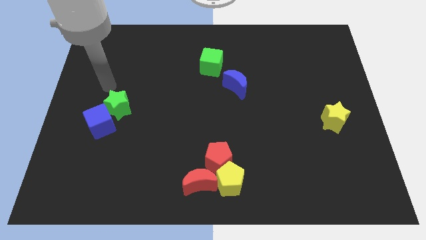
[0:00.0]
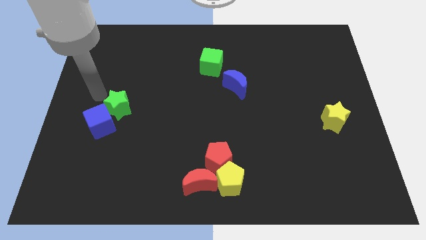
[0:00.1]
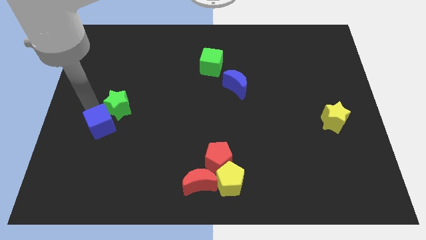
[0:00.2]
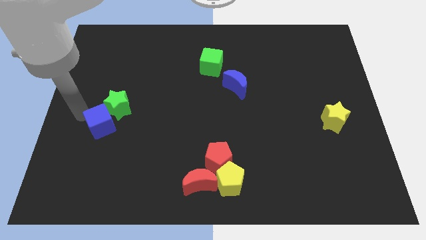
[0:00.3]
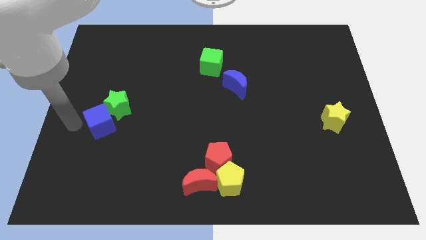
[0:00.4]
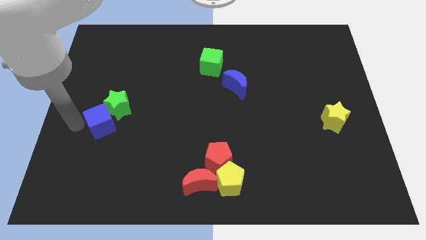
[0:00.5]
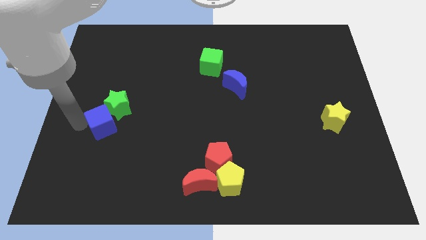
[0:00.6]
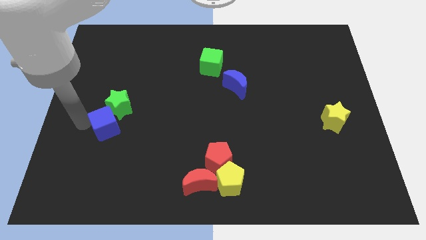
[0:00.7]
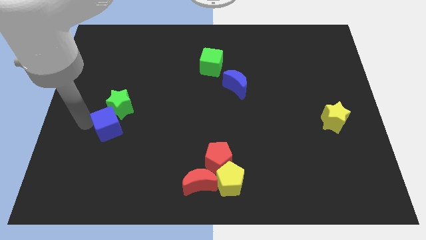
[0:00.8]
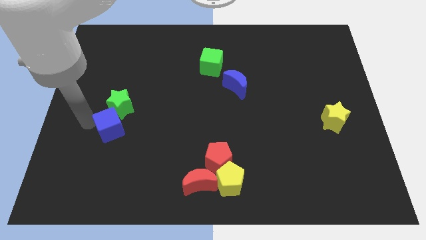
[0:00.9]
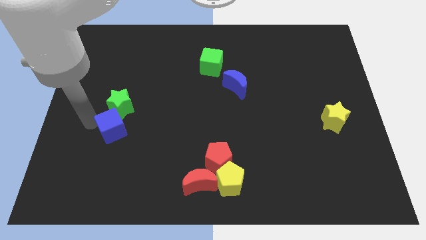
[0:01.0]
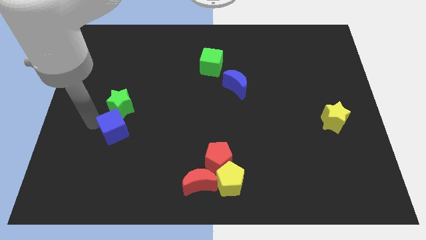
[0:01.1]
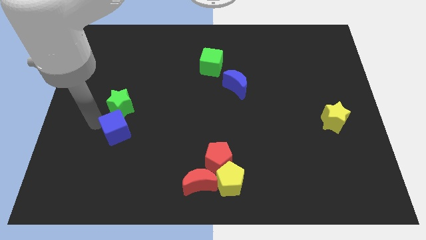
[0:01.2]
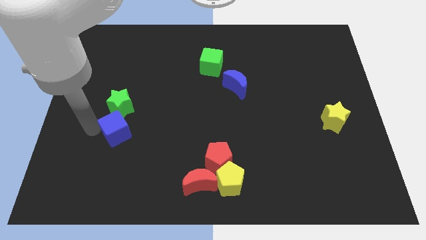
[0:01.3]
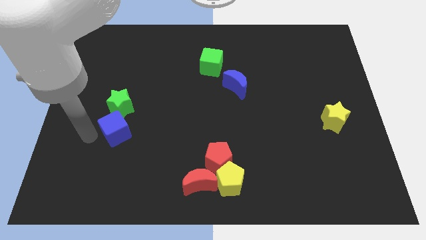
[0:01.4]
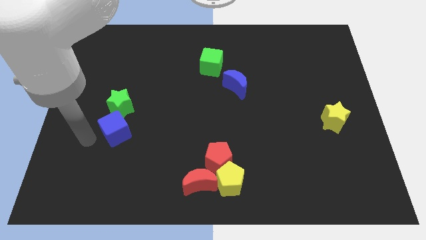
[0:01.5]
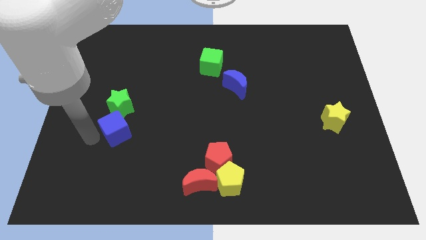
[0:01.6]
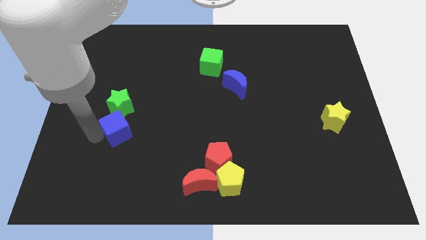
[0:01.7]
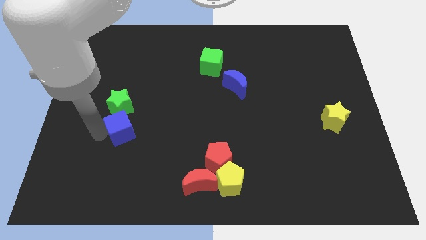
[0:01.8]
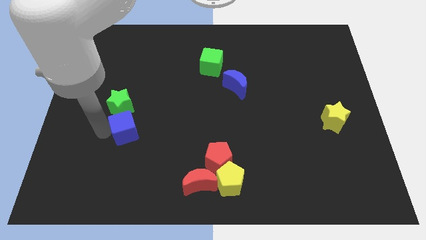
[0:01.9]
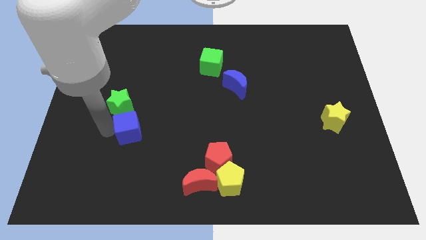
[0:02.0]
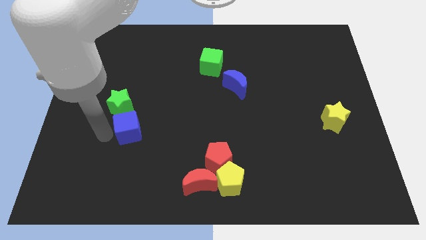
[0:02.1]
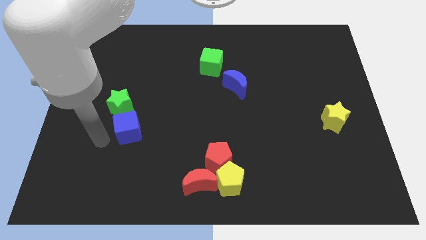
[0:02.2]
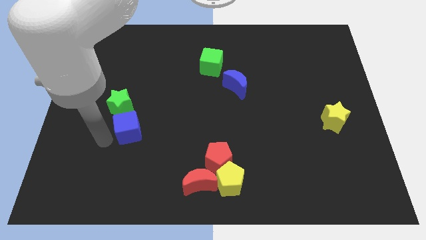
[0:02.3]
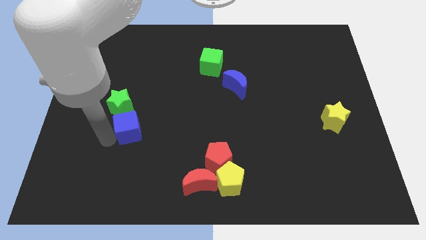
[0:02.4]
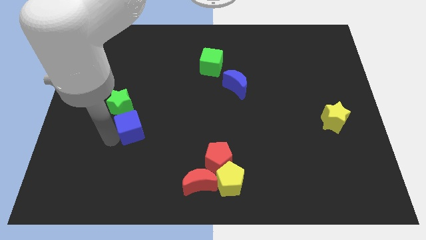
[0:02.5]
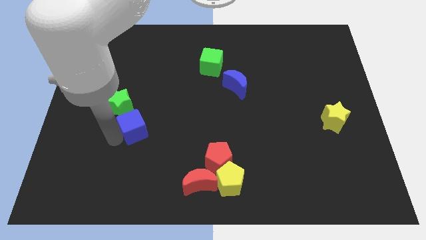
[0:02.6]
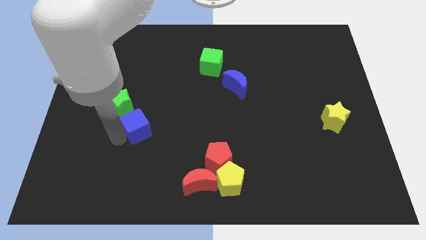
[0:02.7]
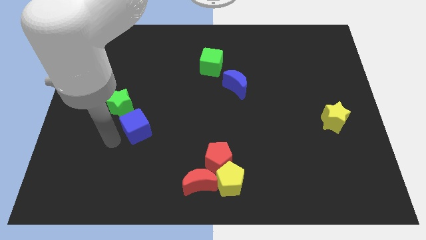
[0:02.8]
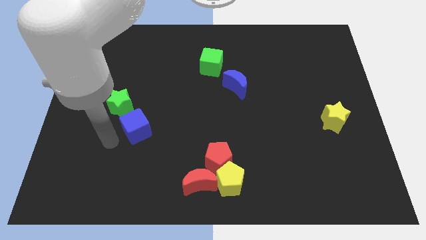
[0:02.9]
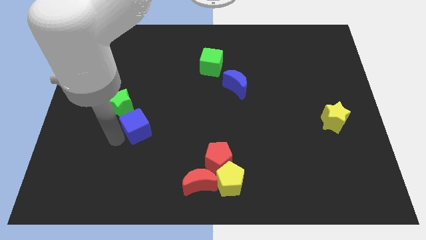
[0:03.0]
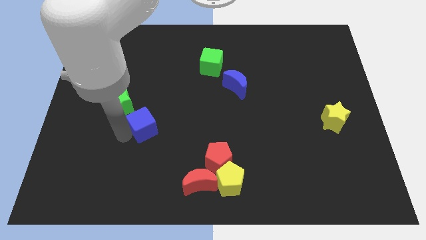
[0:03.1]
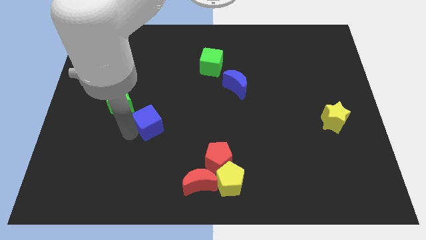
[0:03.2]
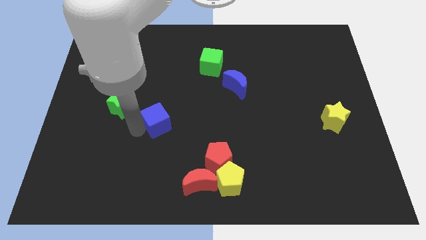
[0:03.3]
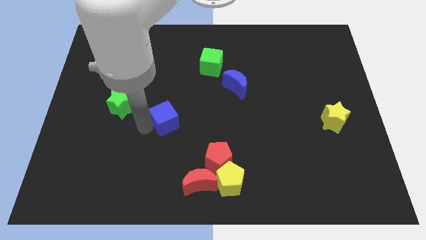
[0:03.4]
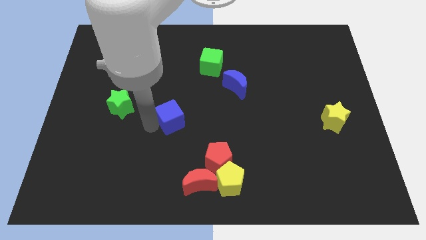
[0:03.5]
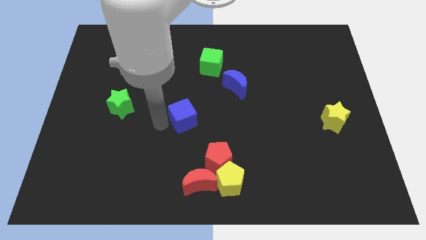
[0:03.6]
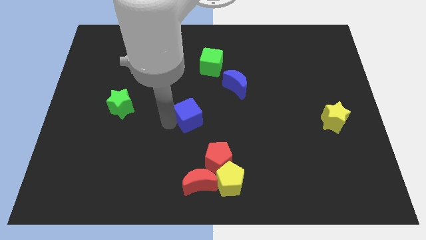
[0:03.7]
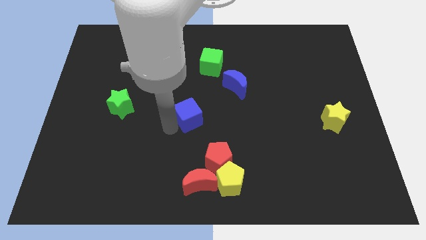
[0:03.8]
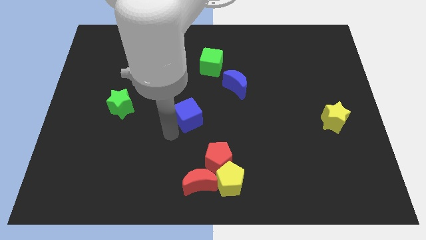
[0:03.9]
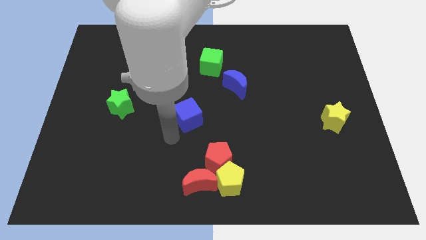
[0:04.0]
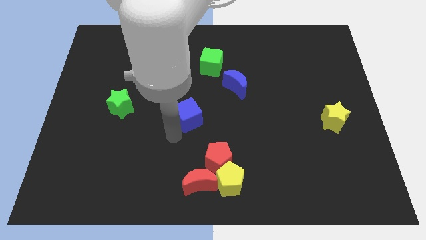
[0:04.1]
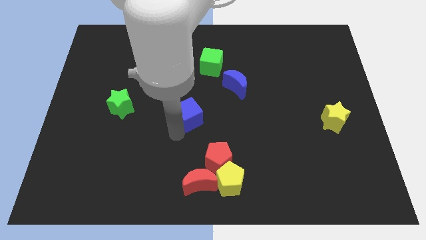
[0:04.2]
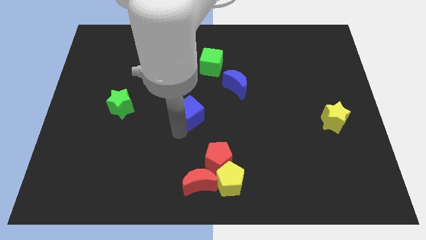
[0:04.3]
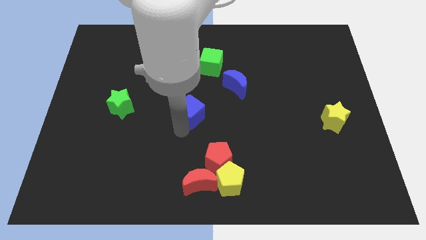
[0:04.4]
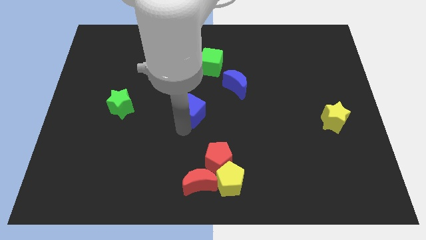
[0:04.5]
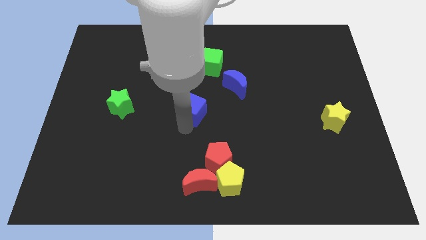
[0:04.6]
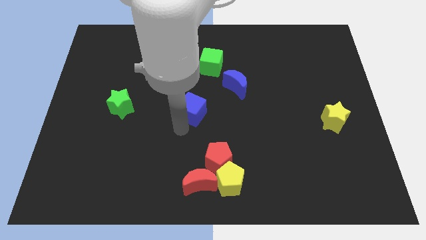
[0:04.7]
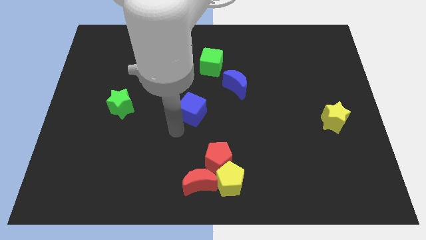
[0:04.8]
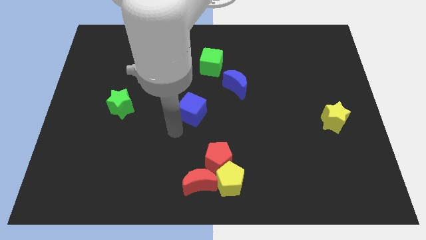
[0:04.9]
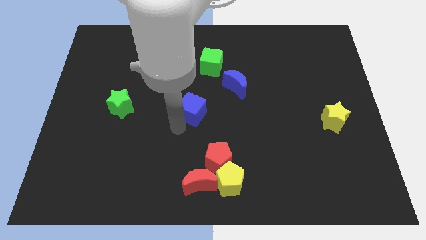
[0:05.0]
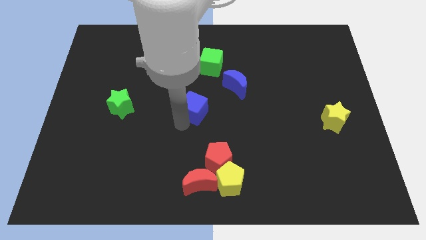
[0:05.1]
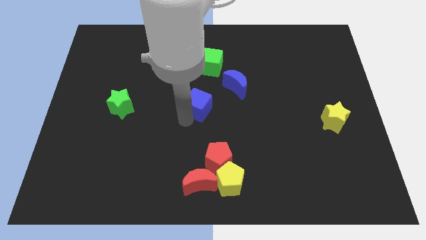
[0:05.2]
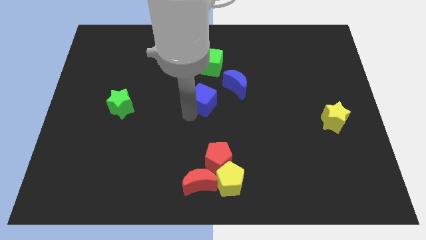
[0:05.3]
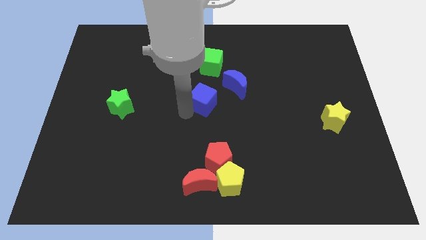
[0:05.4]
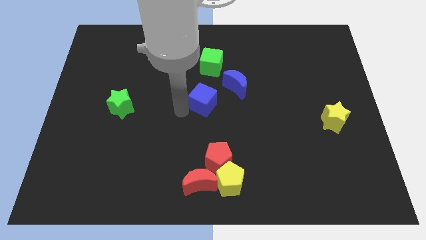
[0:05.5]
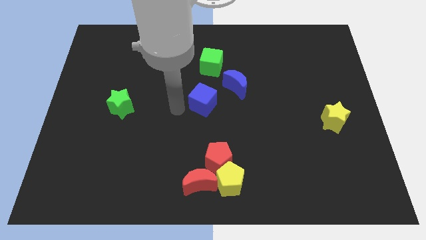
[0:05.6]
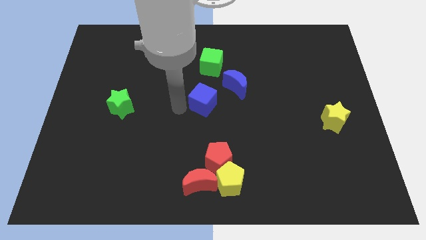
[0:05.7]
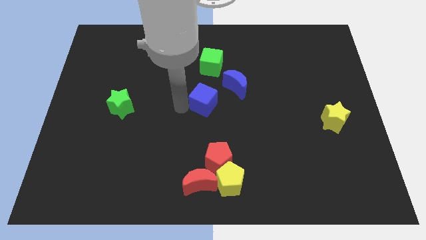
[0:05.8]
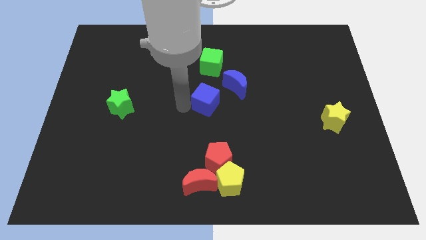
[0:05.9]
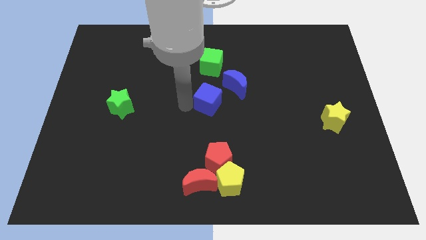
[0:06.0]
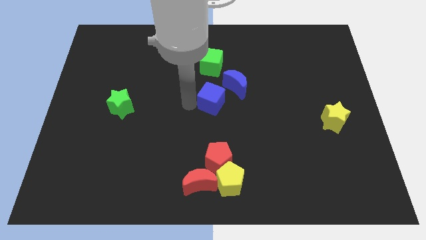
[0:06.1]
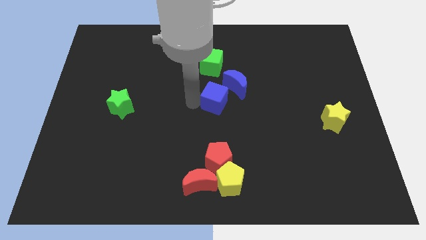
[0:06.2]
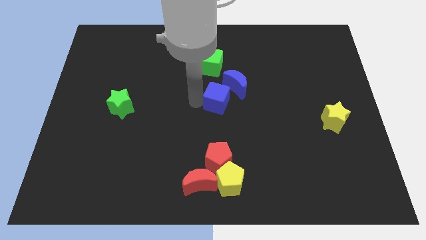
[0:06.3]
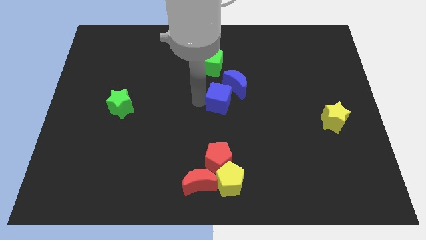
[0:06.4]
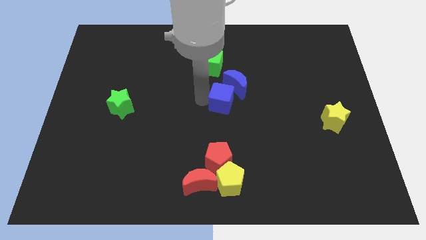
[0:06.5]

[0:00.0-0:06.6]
slide the blue cube close to the blue moon

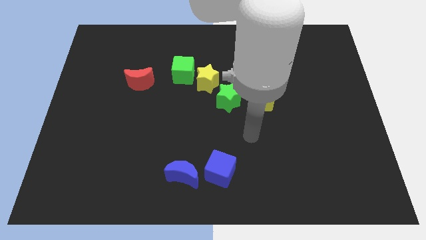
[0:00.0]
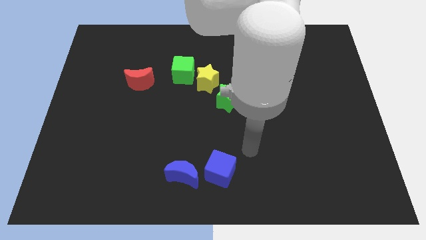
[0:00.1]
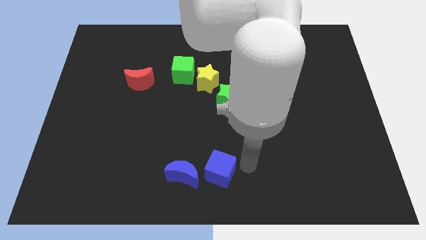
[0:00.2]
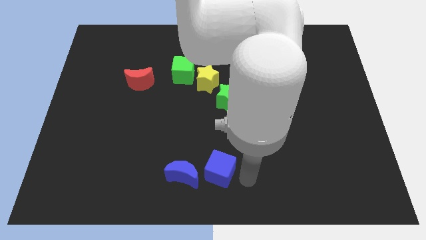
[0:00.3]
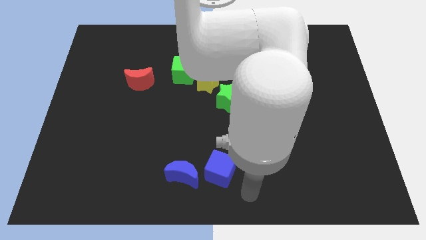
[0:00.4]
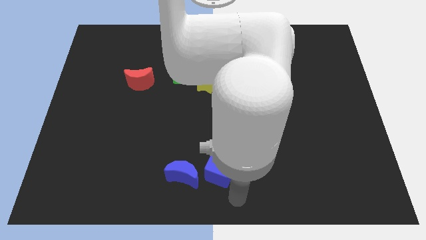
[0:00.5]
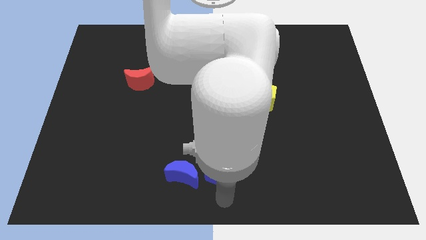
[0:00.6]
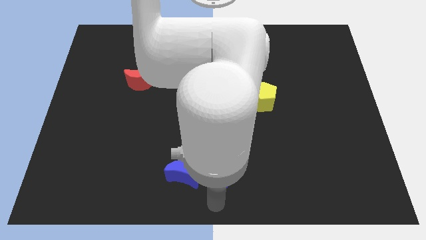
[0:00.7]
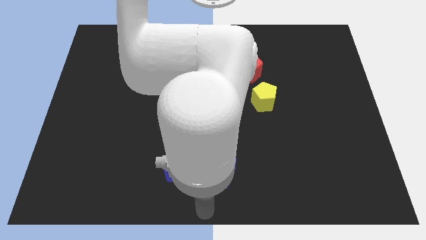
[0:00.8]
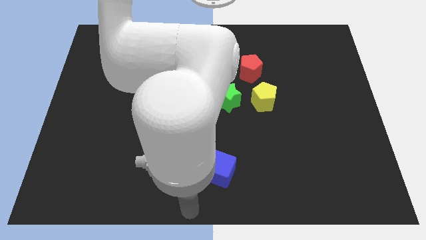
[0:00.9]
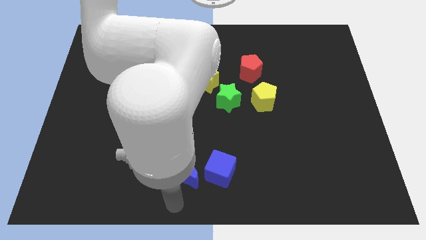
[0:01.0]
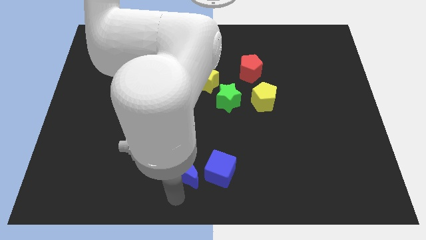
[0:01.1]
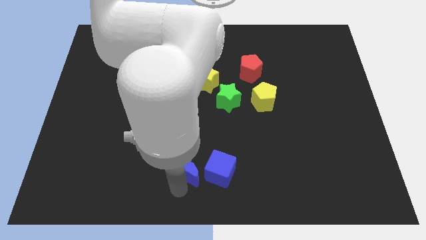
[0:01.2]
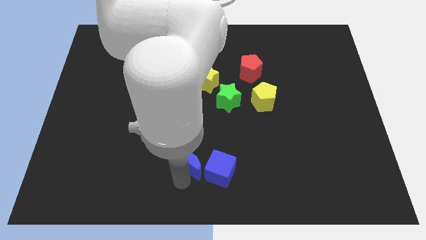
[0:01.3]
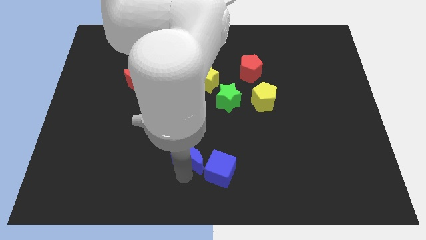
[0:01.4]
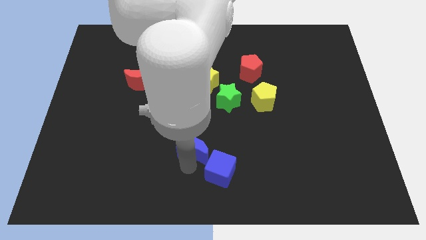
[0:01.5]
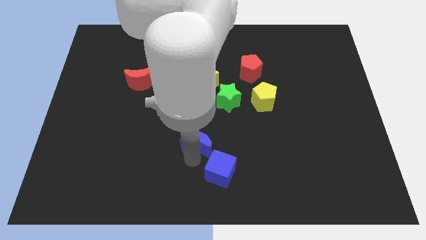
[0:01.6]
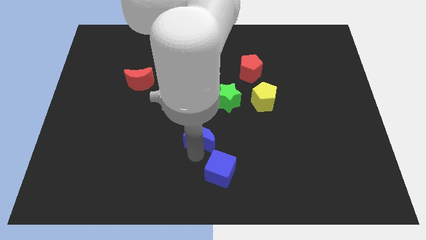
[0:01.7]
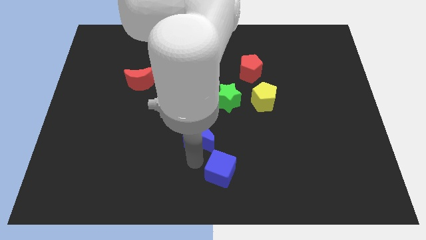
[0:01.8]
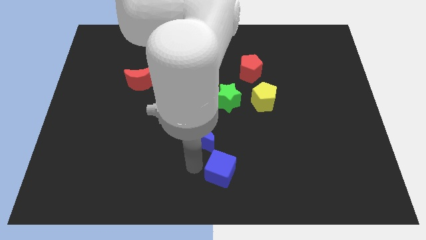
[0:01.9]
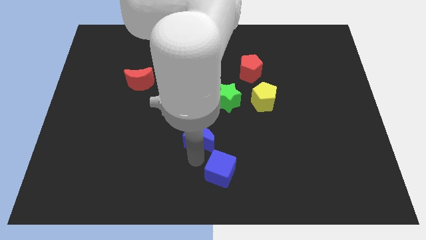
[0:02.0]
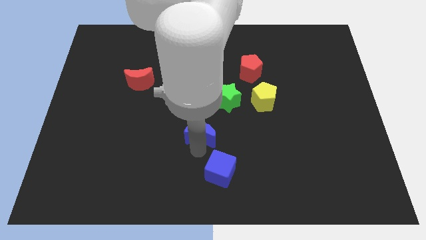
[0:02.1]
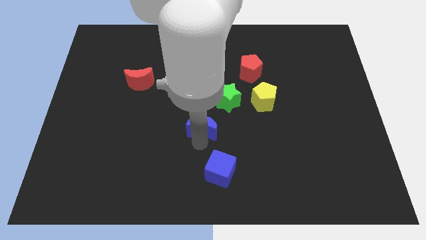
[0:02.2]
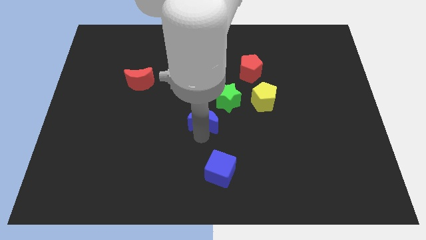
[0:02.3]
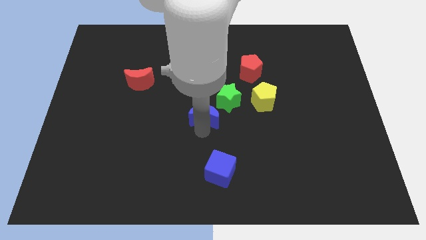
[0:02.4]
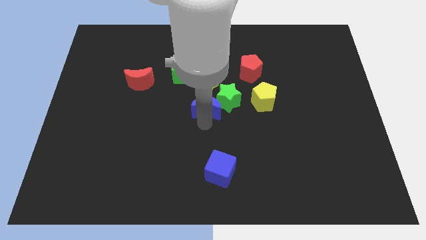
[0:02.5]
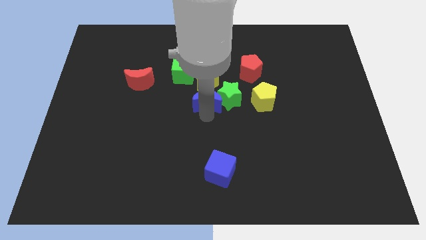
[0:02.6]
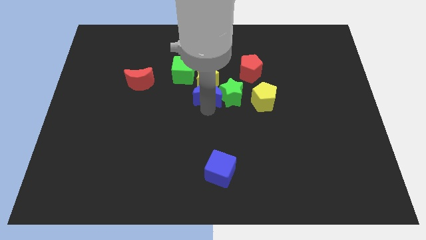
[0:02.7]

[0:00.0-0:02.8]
slide the blue moon next to the yellow star
